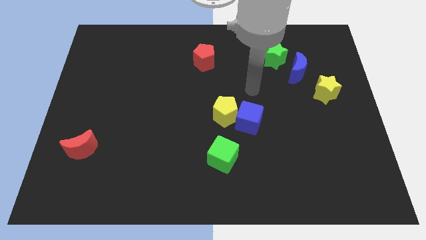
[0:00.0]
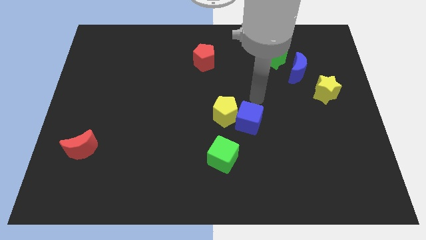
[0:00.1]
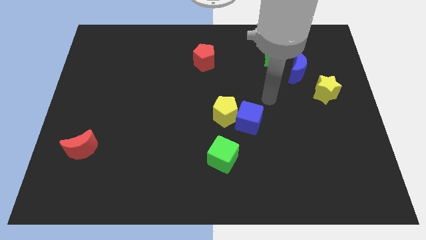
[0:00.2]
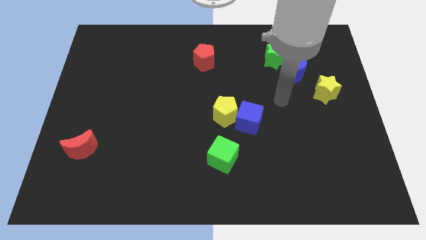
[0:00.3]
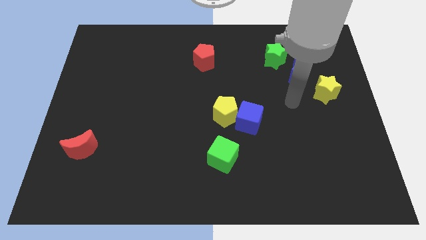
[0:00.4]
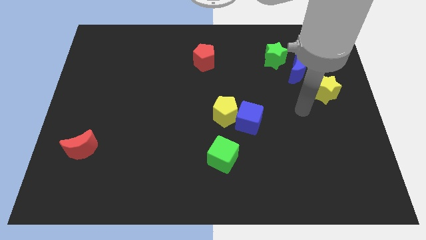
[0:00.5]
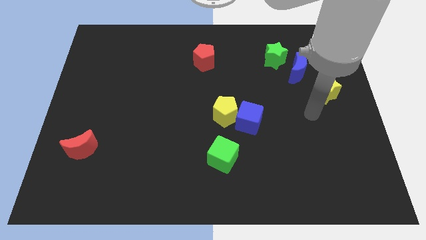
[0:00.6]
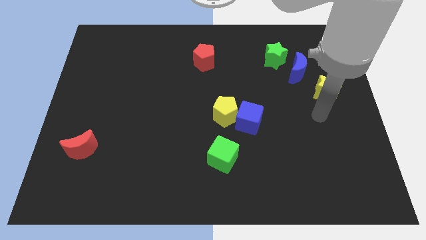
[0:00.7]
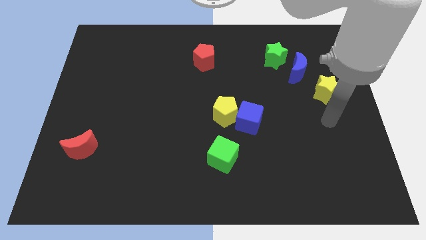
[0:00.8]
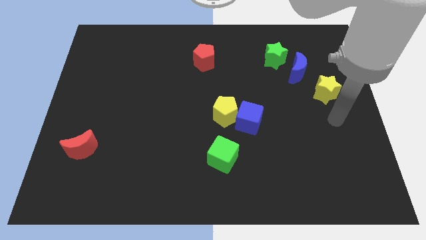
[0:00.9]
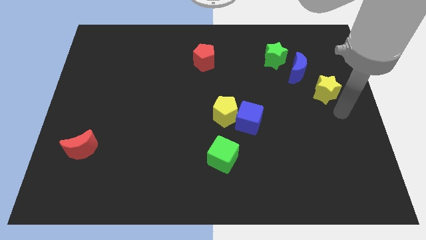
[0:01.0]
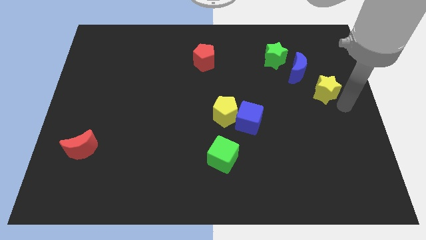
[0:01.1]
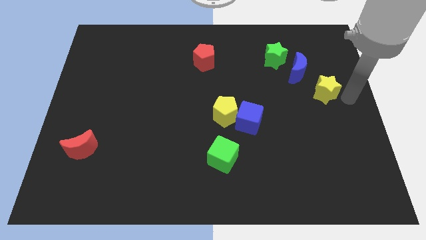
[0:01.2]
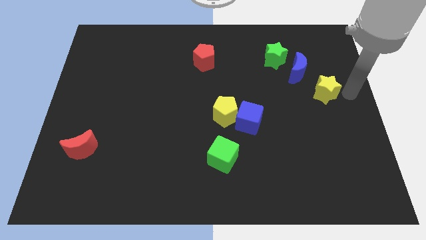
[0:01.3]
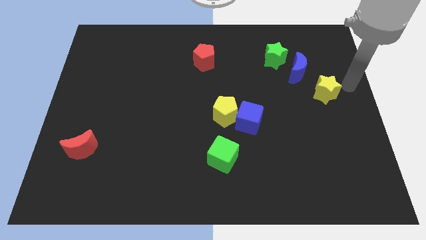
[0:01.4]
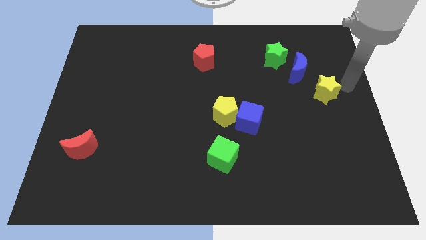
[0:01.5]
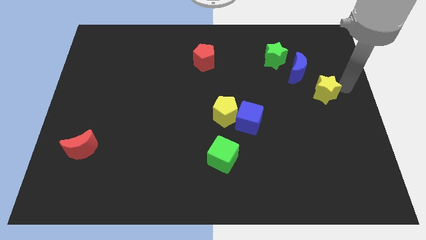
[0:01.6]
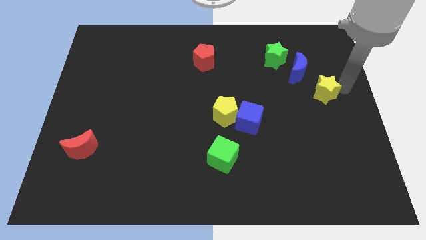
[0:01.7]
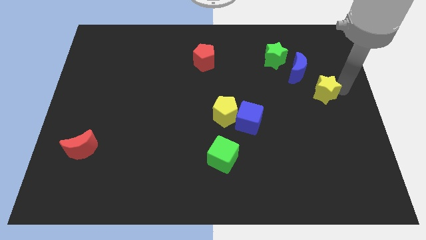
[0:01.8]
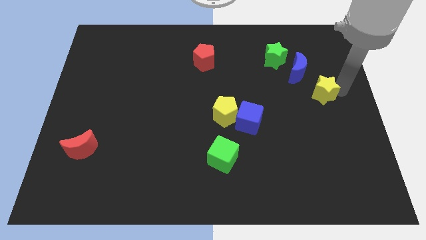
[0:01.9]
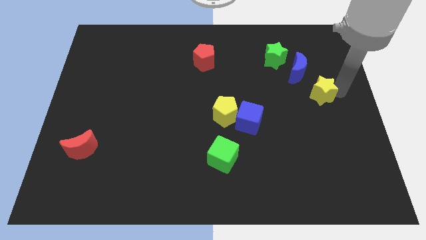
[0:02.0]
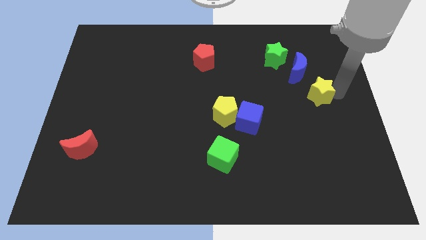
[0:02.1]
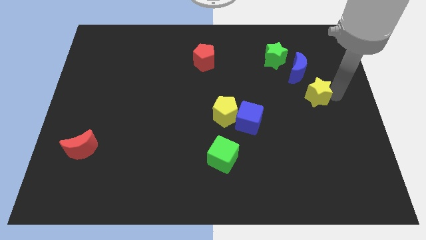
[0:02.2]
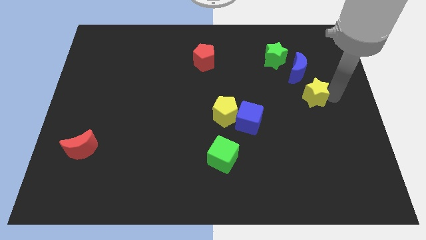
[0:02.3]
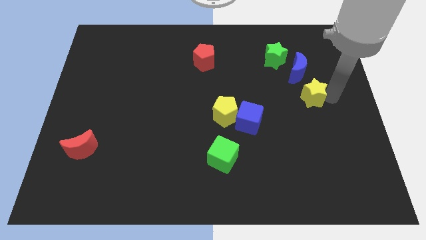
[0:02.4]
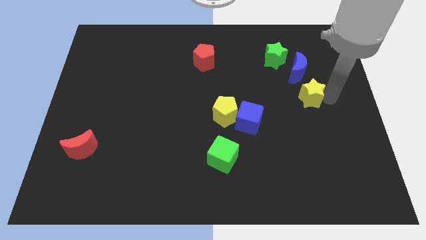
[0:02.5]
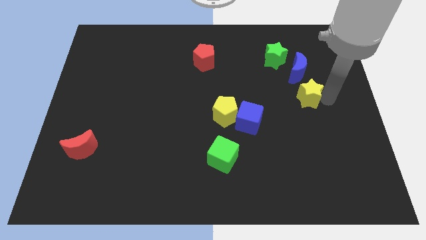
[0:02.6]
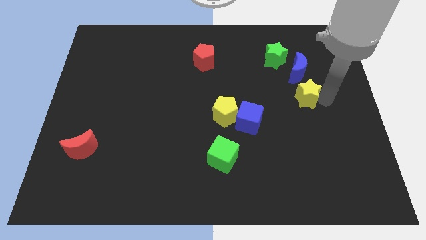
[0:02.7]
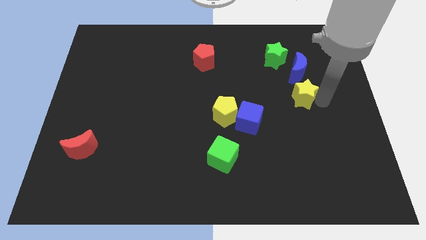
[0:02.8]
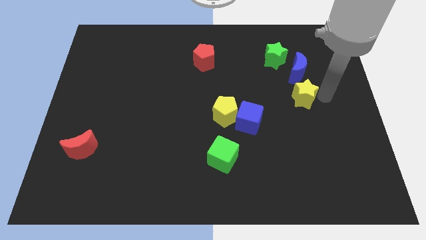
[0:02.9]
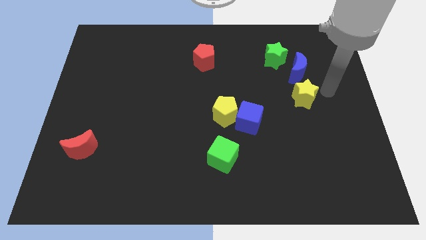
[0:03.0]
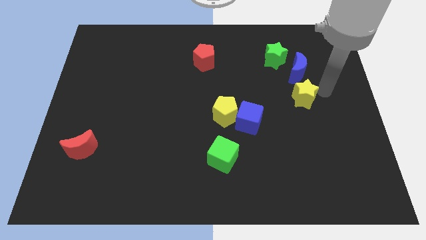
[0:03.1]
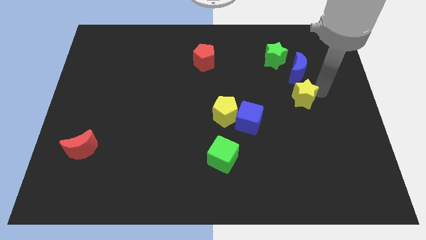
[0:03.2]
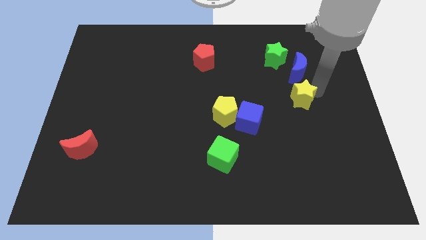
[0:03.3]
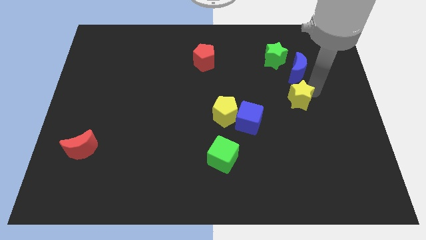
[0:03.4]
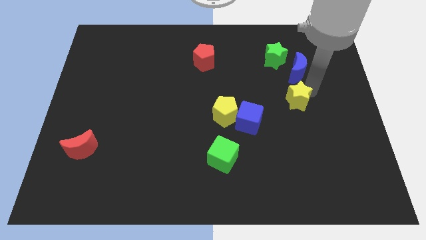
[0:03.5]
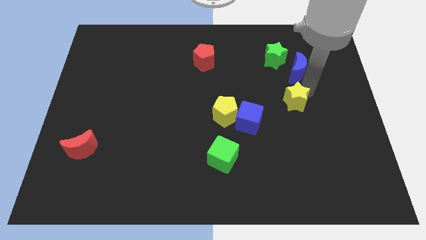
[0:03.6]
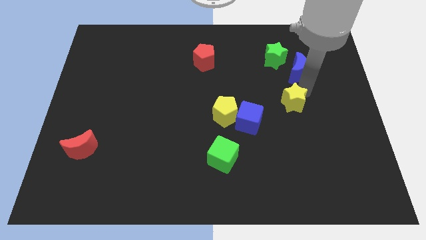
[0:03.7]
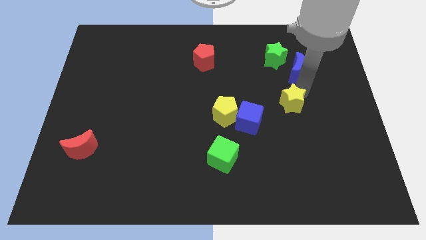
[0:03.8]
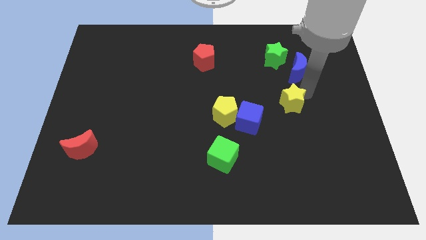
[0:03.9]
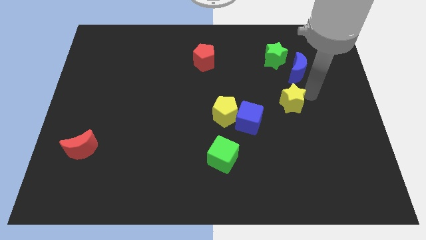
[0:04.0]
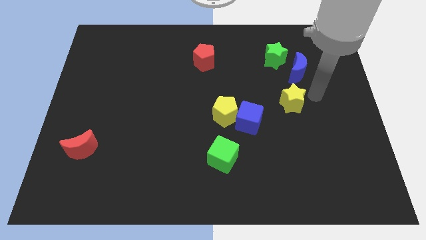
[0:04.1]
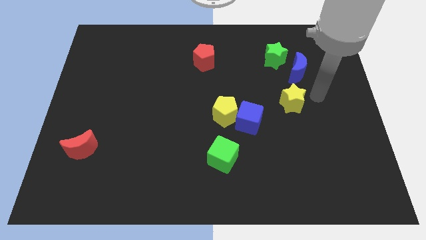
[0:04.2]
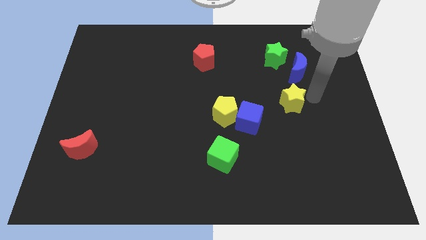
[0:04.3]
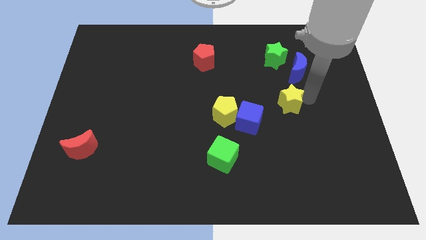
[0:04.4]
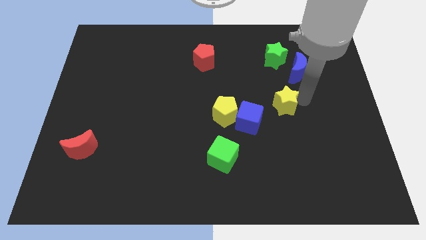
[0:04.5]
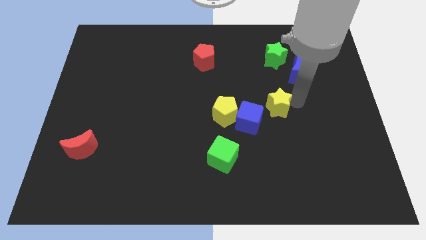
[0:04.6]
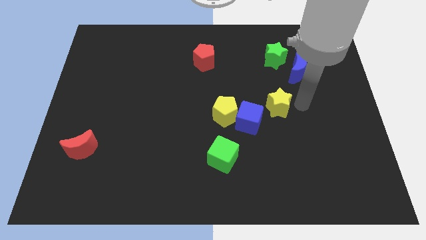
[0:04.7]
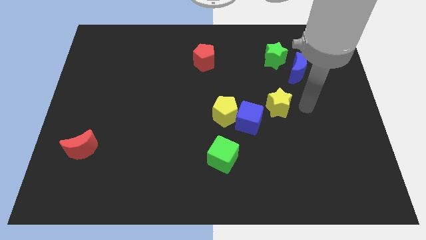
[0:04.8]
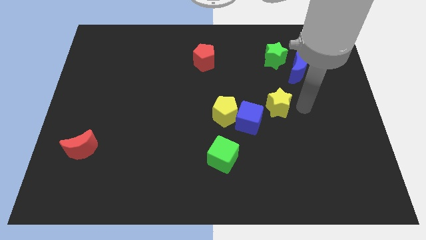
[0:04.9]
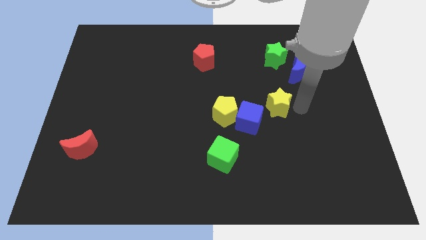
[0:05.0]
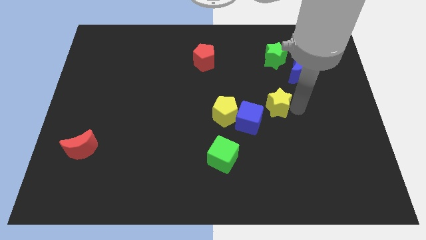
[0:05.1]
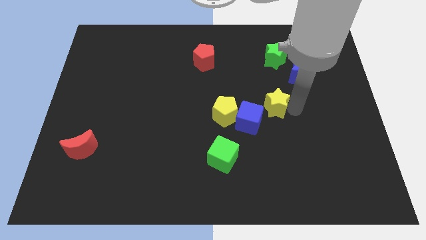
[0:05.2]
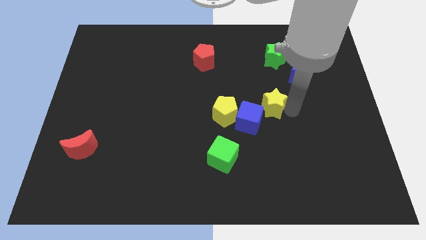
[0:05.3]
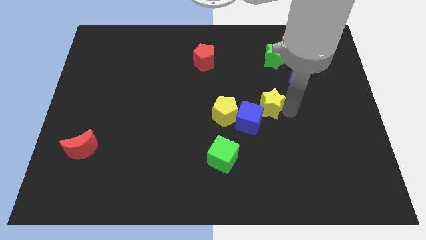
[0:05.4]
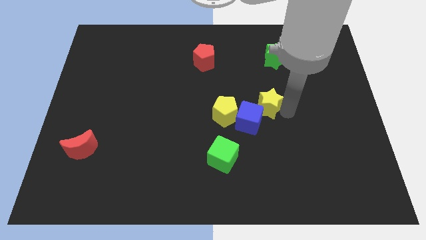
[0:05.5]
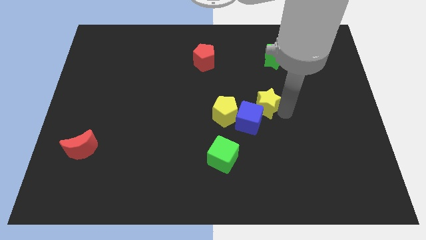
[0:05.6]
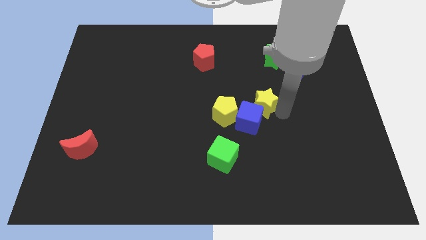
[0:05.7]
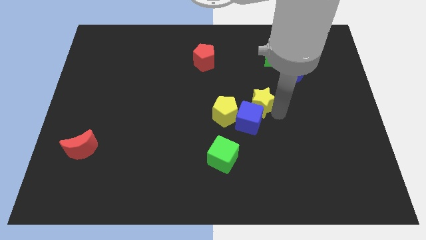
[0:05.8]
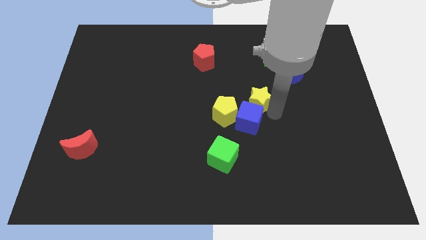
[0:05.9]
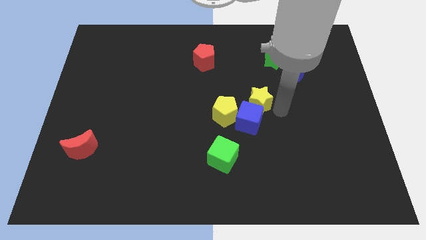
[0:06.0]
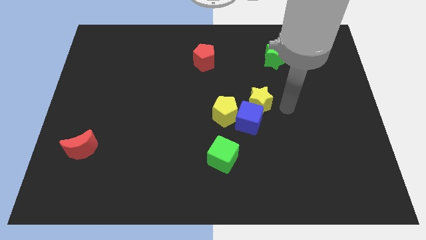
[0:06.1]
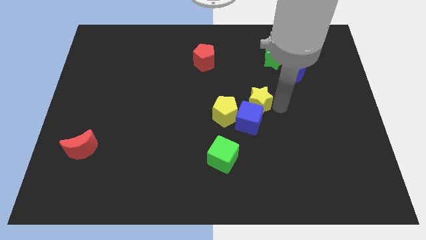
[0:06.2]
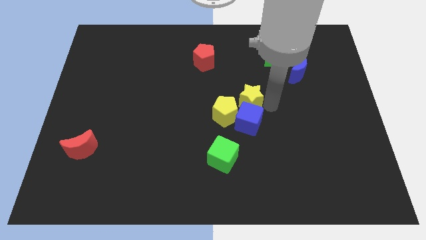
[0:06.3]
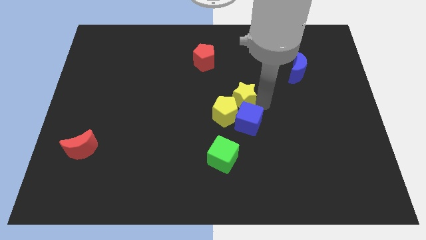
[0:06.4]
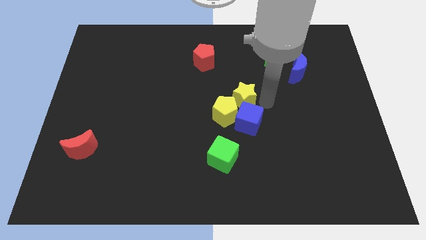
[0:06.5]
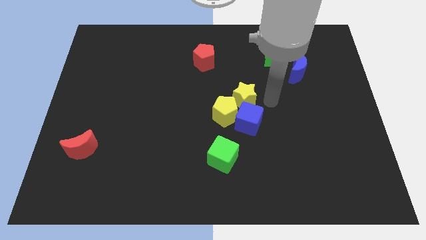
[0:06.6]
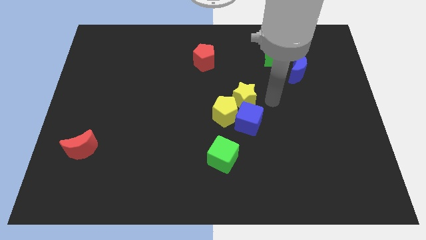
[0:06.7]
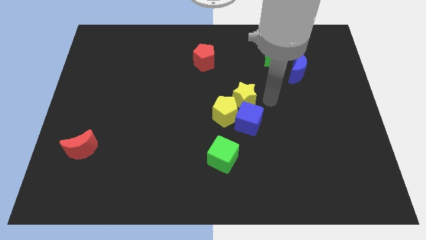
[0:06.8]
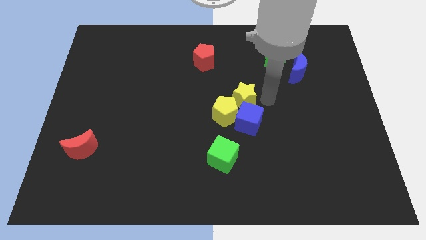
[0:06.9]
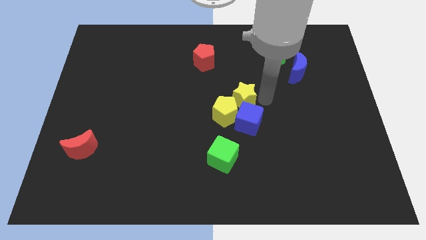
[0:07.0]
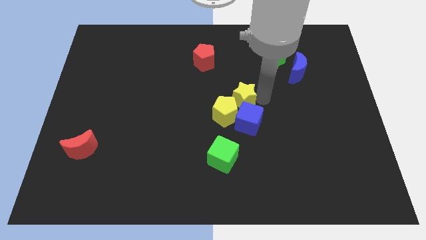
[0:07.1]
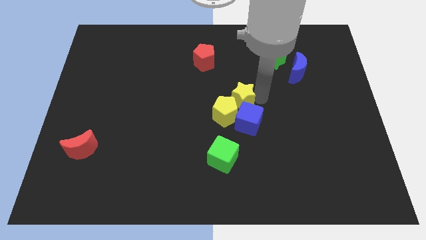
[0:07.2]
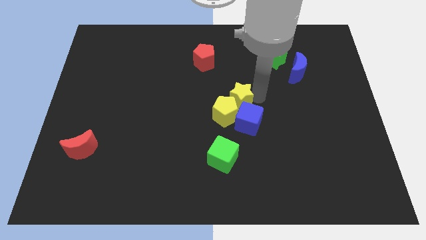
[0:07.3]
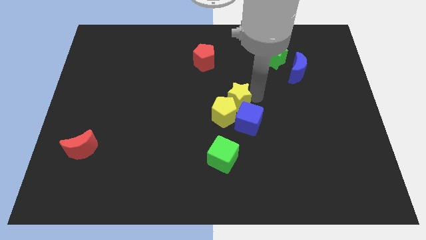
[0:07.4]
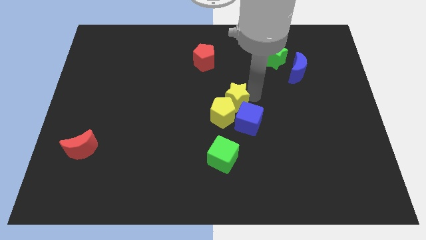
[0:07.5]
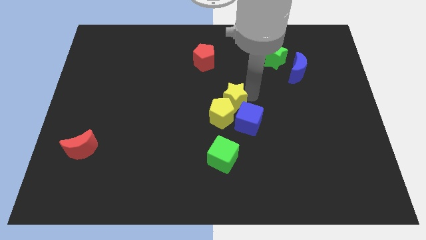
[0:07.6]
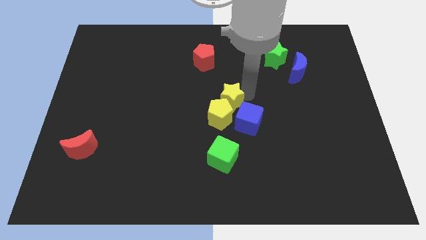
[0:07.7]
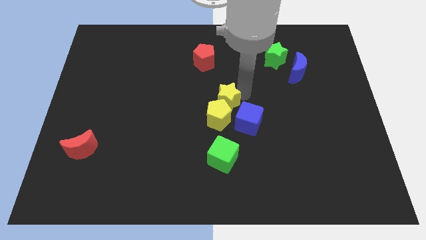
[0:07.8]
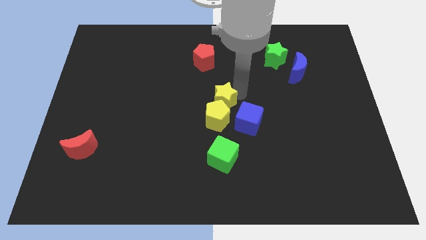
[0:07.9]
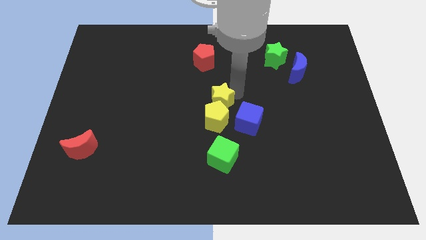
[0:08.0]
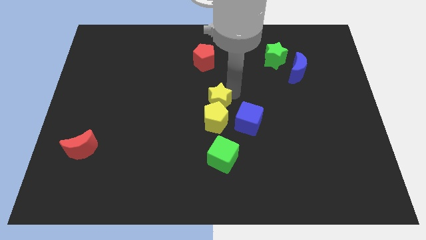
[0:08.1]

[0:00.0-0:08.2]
push the yellow star to the top left side of the yellow pentagon
